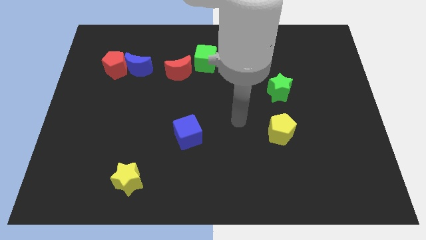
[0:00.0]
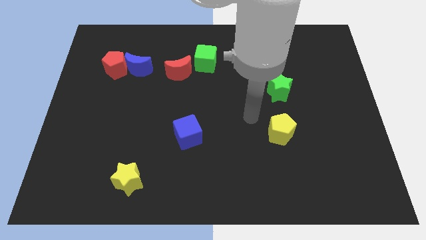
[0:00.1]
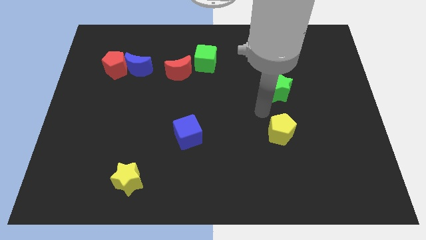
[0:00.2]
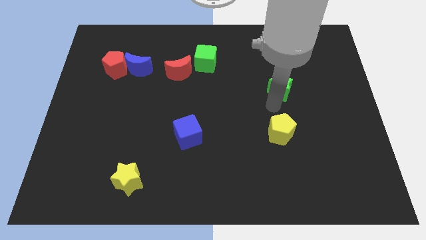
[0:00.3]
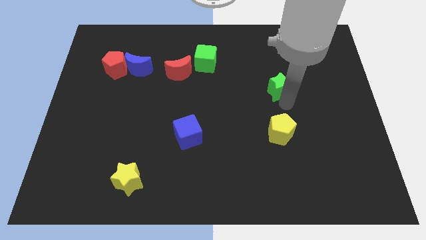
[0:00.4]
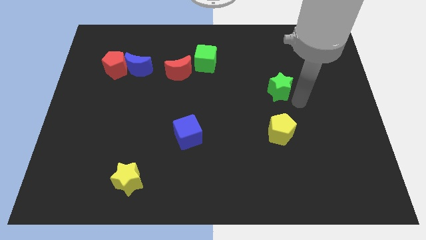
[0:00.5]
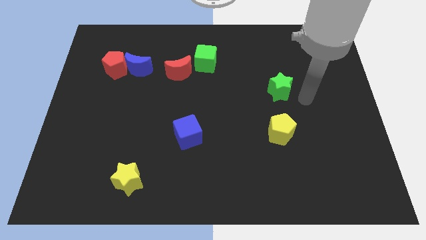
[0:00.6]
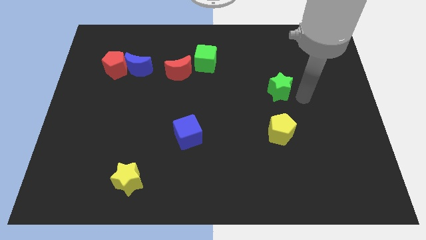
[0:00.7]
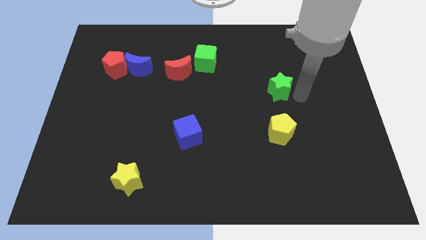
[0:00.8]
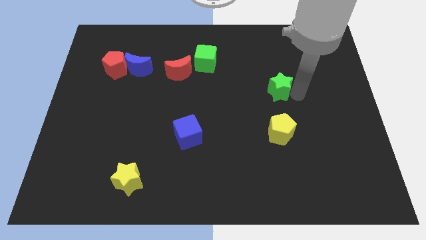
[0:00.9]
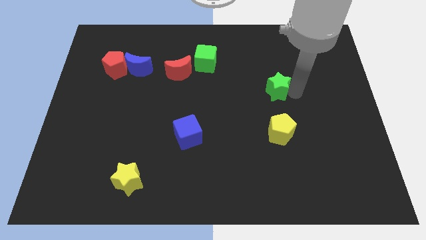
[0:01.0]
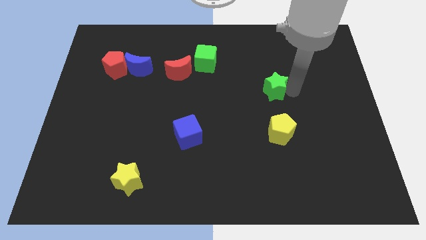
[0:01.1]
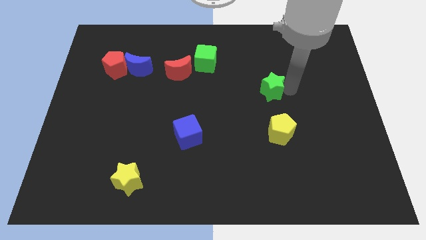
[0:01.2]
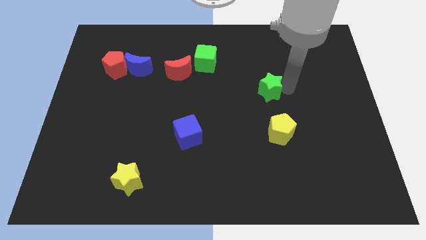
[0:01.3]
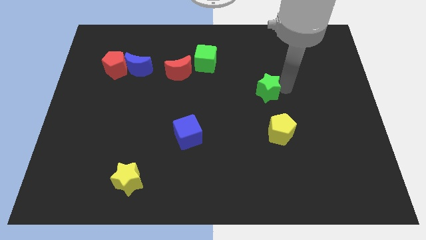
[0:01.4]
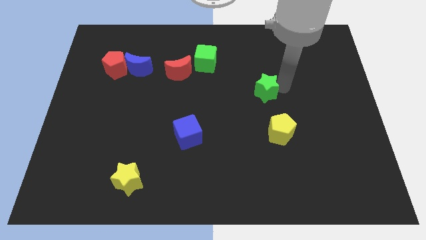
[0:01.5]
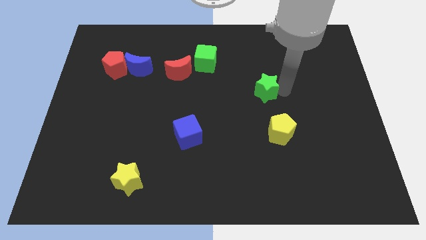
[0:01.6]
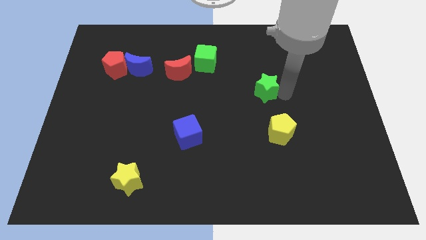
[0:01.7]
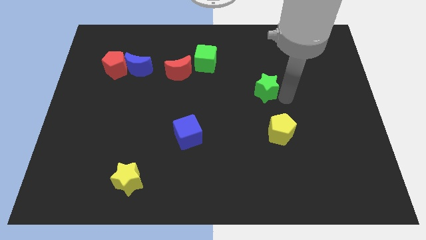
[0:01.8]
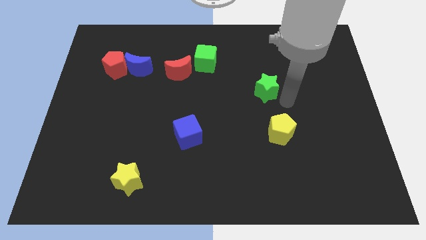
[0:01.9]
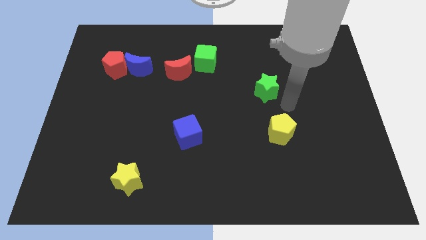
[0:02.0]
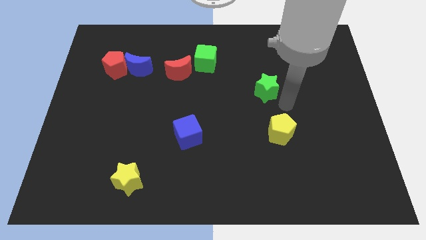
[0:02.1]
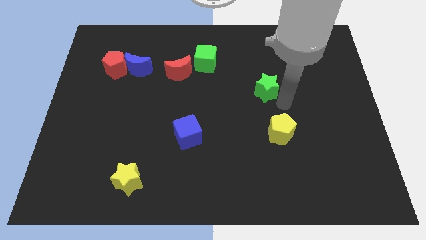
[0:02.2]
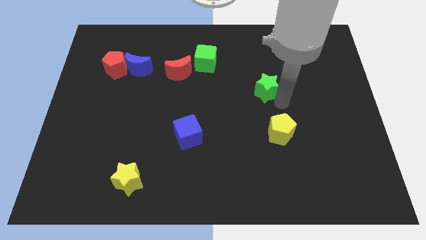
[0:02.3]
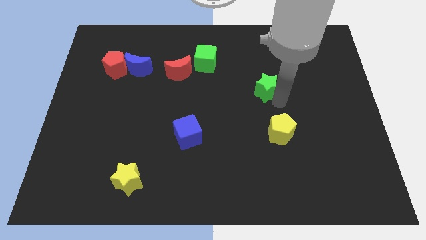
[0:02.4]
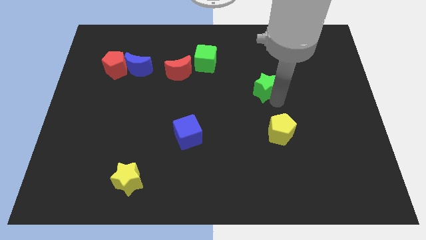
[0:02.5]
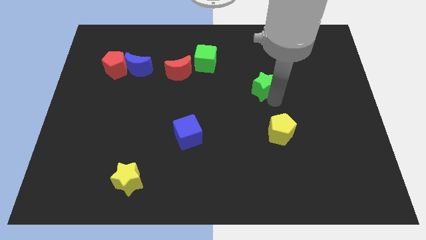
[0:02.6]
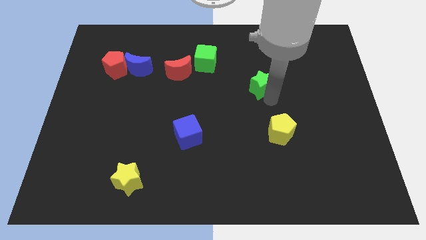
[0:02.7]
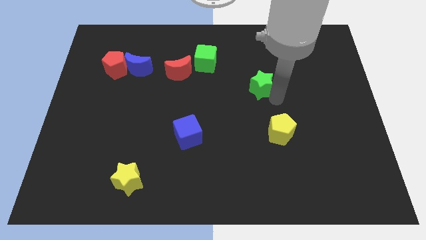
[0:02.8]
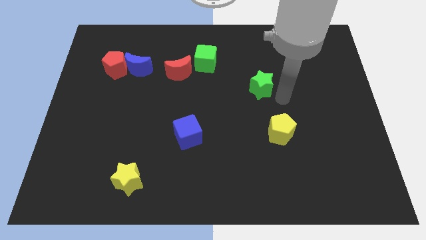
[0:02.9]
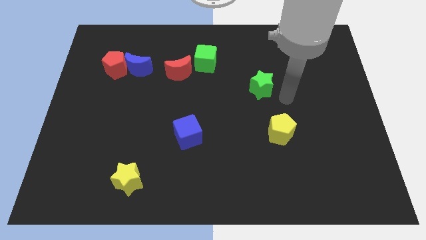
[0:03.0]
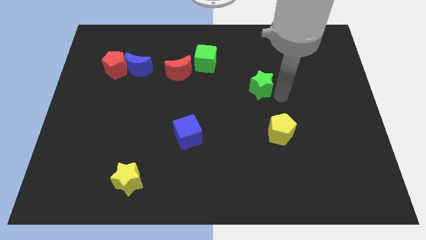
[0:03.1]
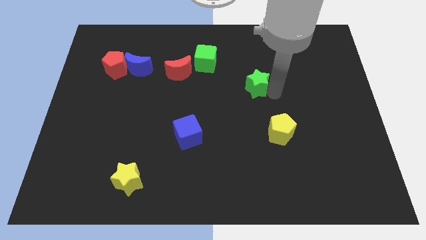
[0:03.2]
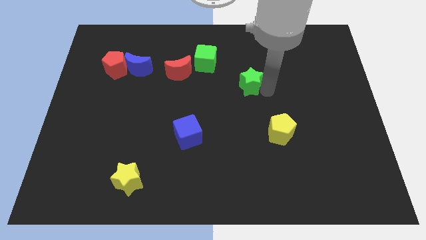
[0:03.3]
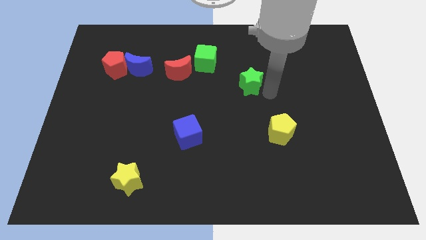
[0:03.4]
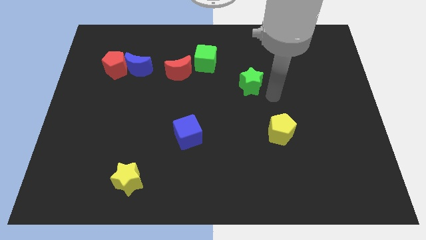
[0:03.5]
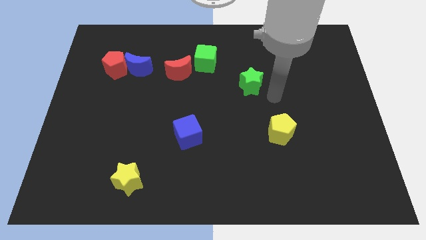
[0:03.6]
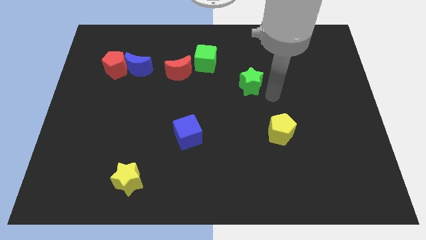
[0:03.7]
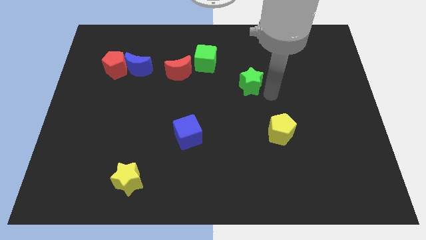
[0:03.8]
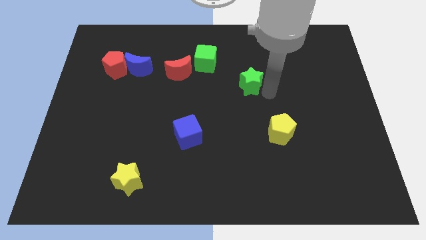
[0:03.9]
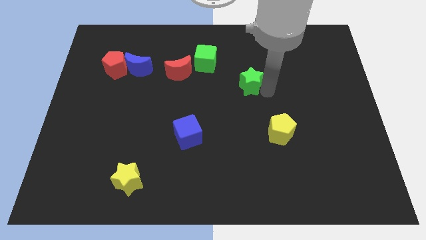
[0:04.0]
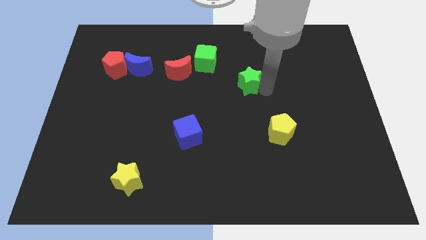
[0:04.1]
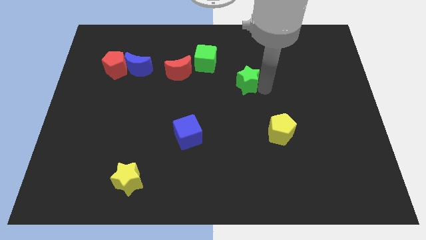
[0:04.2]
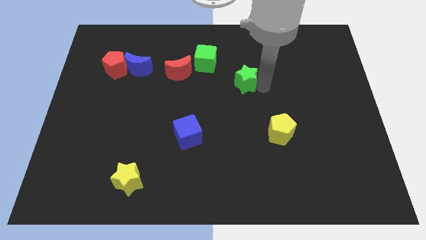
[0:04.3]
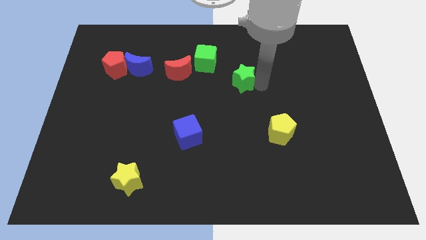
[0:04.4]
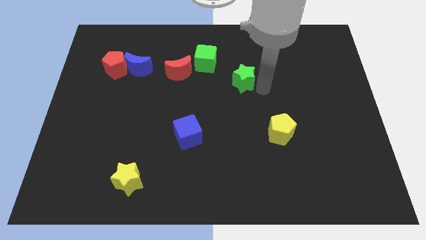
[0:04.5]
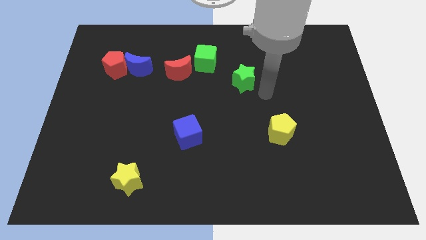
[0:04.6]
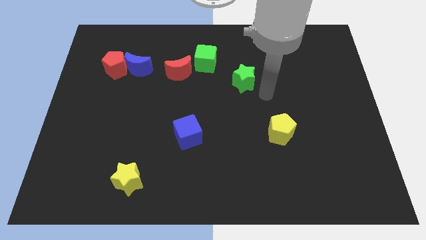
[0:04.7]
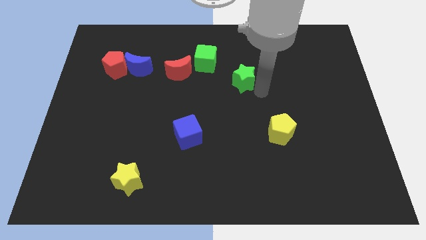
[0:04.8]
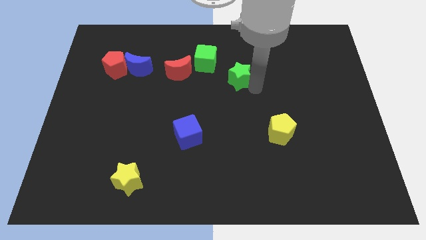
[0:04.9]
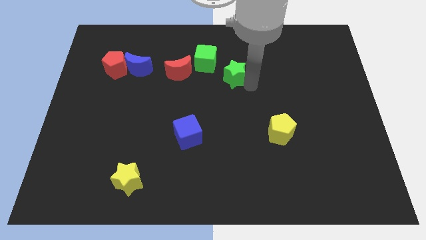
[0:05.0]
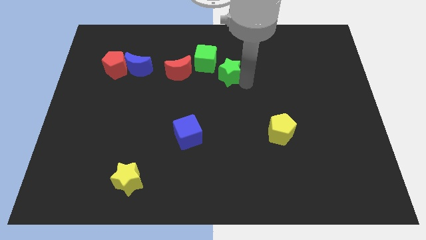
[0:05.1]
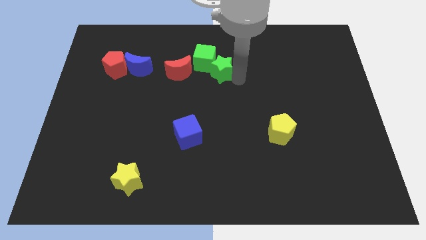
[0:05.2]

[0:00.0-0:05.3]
move the green star to the green cube

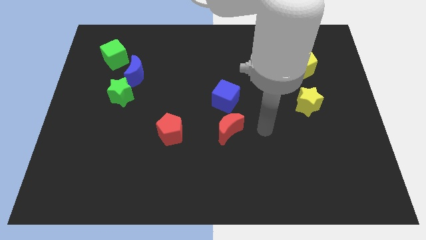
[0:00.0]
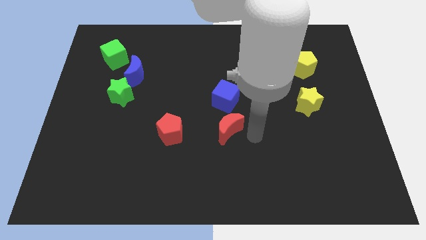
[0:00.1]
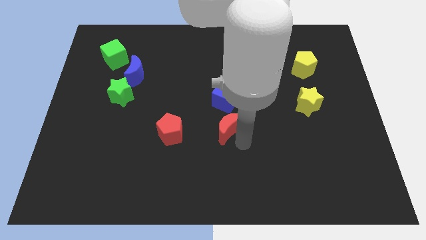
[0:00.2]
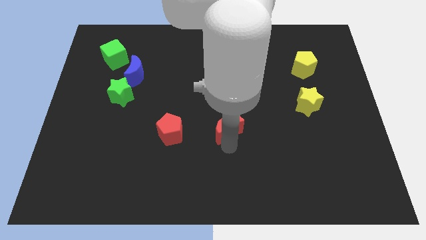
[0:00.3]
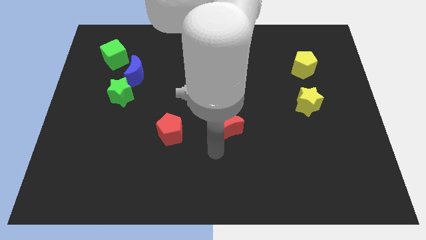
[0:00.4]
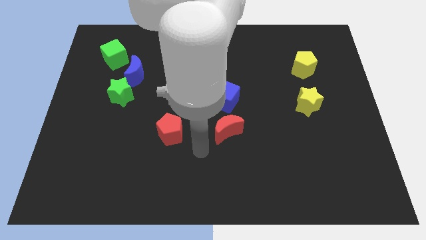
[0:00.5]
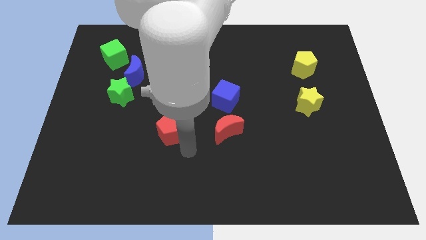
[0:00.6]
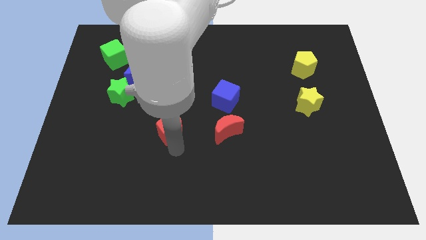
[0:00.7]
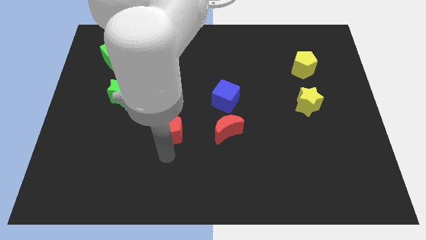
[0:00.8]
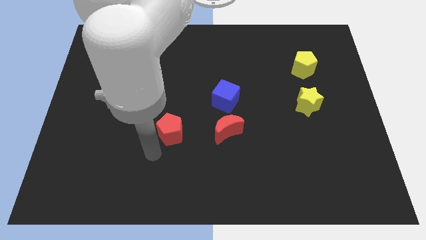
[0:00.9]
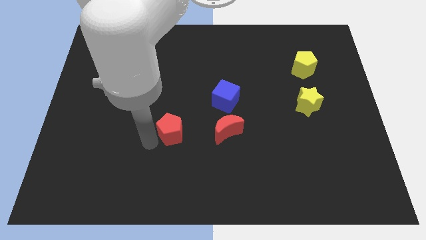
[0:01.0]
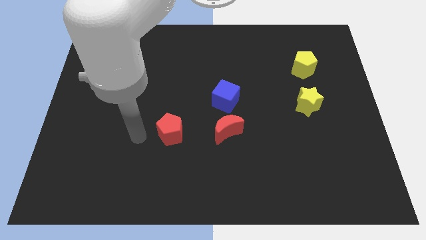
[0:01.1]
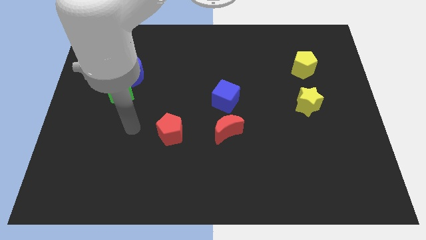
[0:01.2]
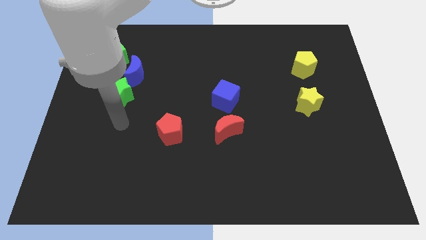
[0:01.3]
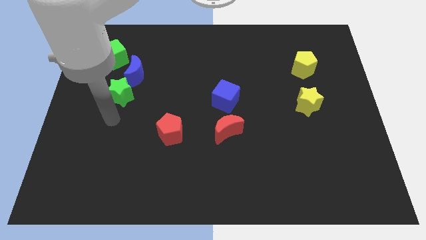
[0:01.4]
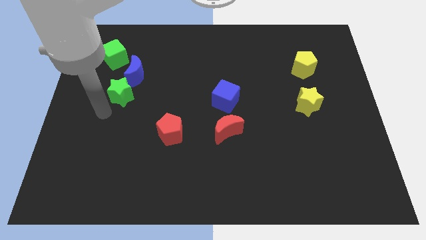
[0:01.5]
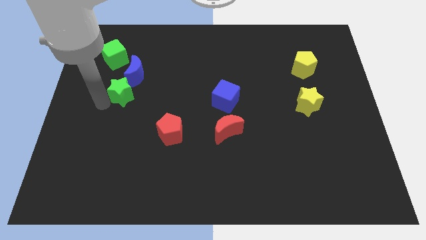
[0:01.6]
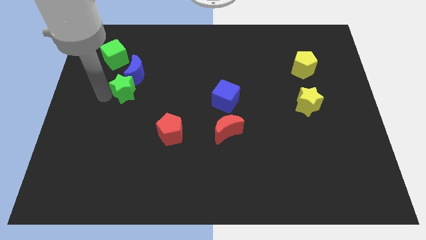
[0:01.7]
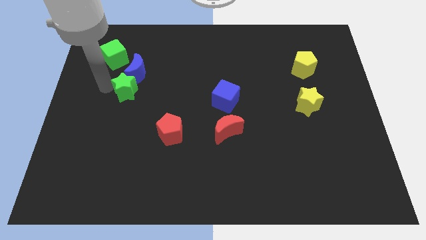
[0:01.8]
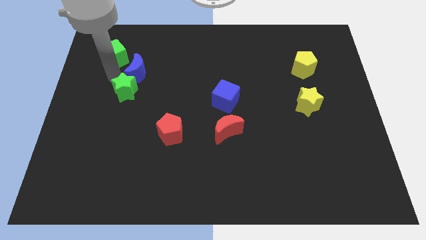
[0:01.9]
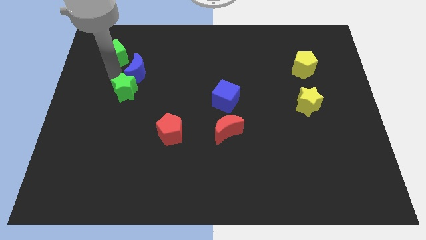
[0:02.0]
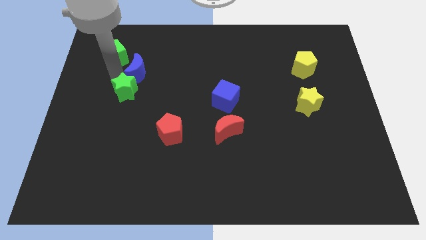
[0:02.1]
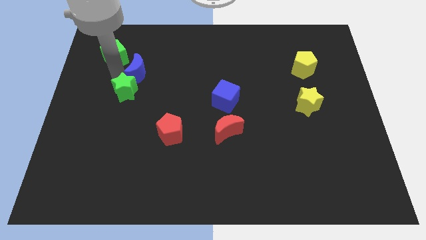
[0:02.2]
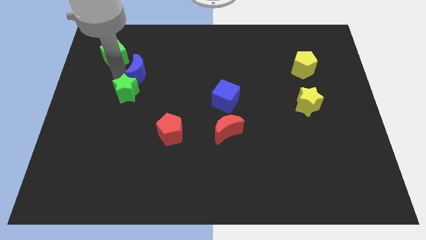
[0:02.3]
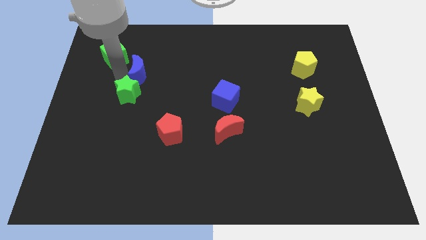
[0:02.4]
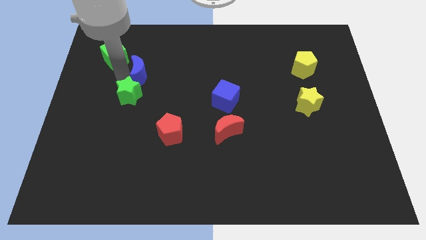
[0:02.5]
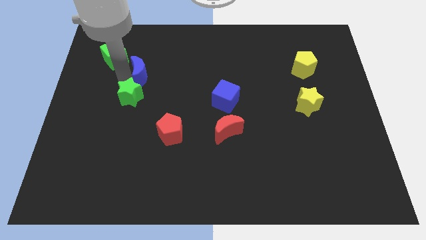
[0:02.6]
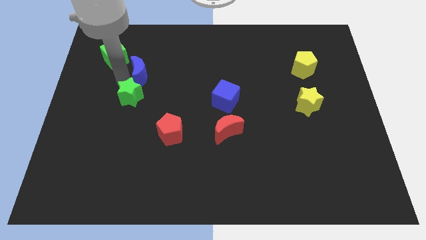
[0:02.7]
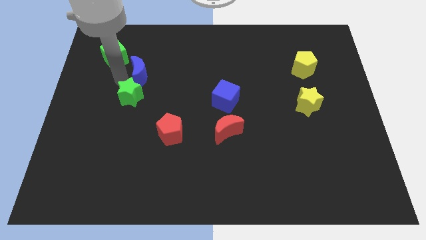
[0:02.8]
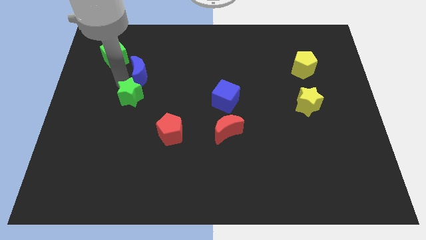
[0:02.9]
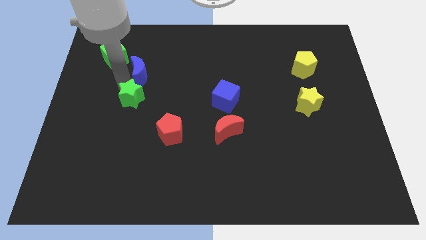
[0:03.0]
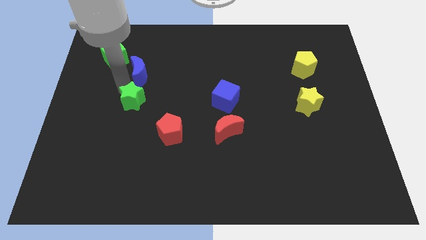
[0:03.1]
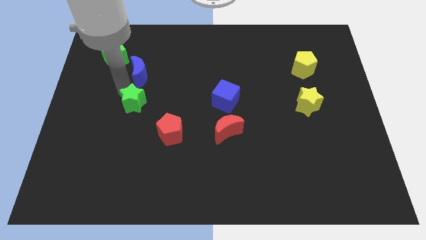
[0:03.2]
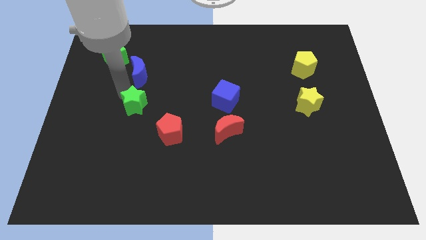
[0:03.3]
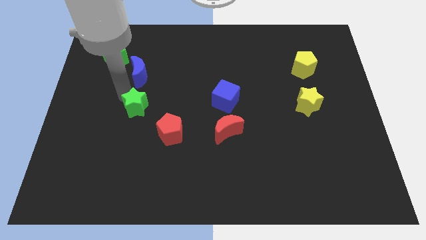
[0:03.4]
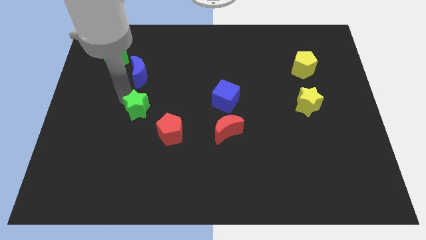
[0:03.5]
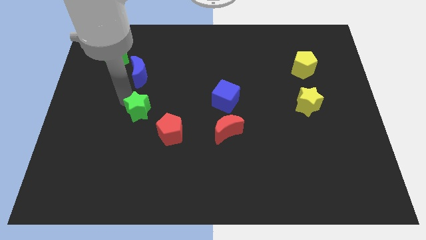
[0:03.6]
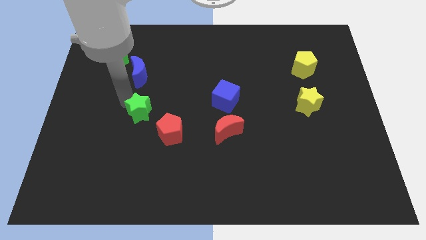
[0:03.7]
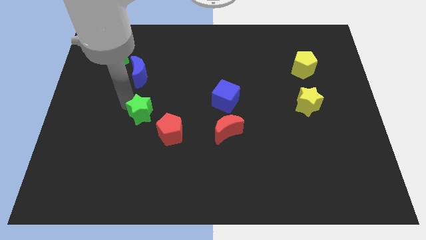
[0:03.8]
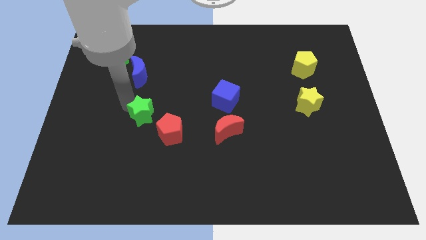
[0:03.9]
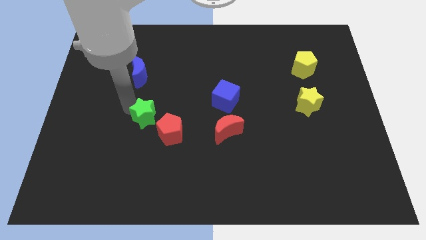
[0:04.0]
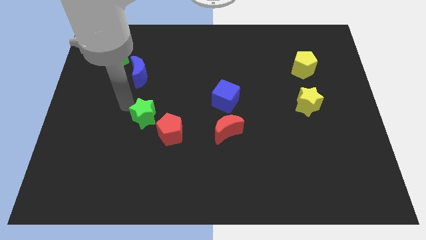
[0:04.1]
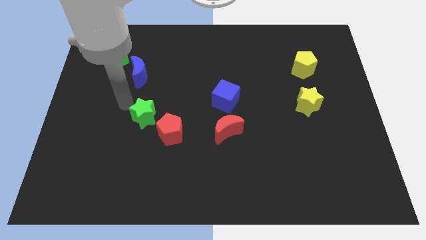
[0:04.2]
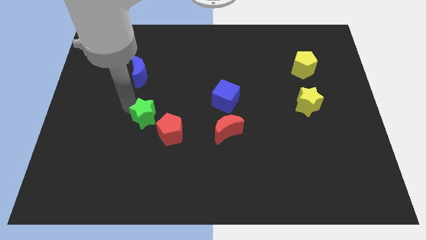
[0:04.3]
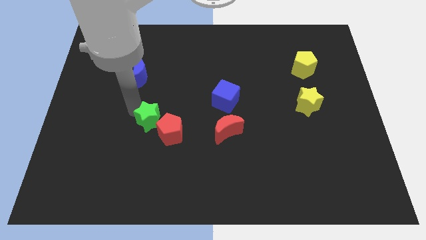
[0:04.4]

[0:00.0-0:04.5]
move the green star next to the red pentagon
